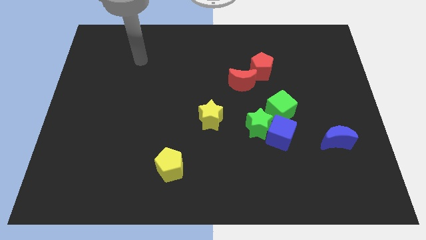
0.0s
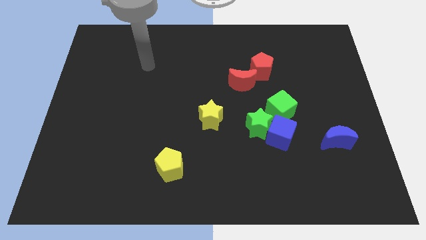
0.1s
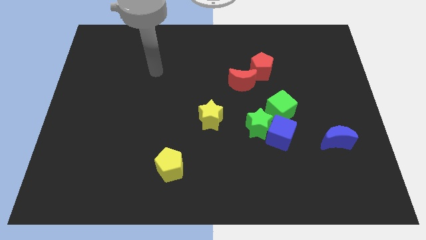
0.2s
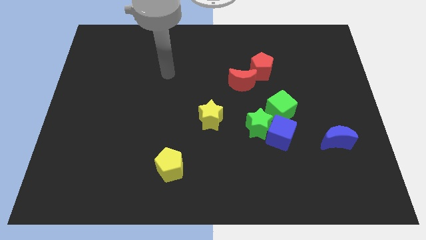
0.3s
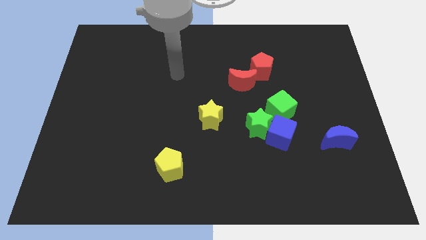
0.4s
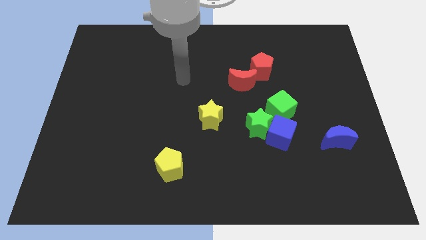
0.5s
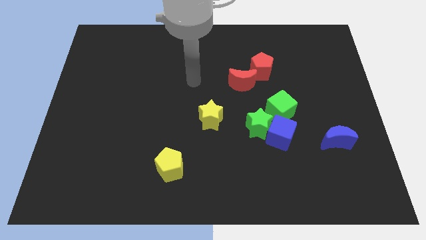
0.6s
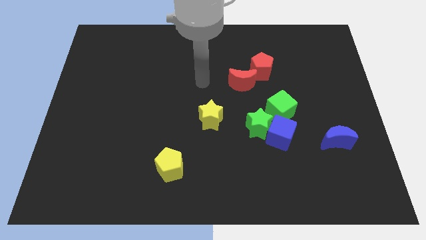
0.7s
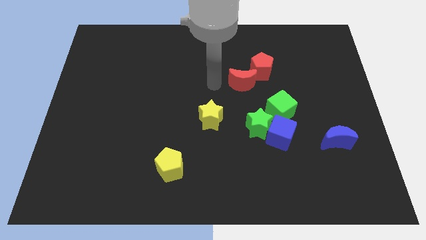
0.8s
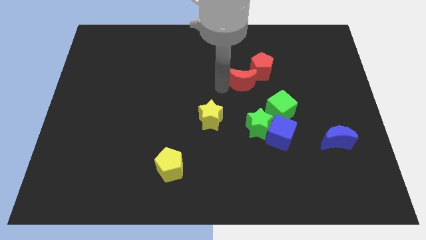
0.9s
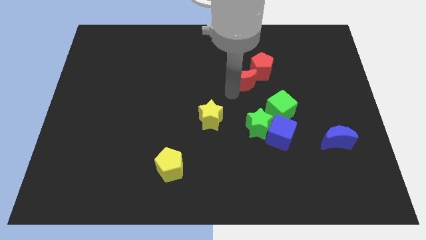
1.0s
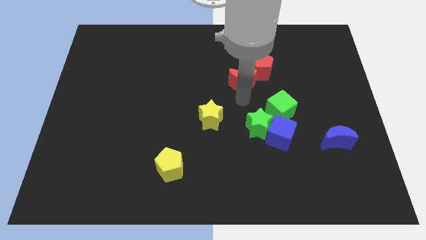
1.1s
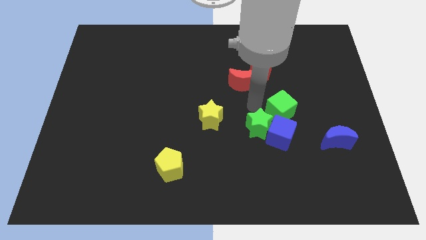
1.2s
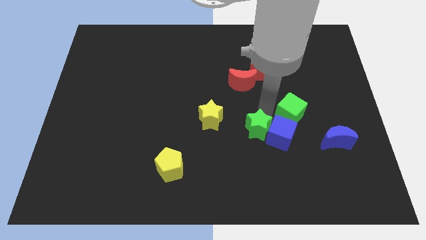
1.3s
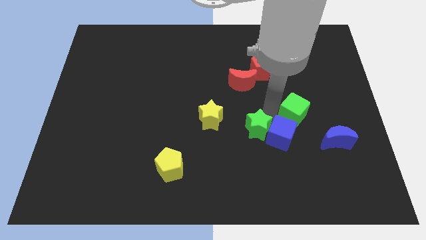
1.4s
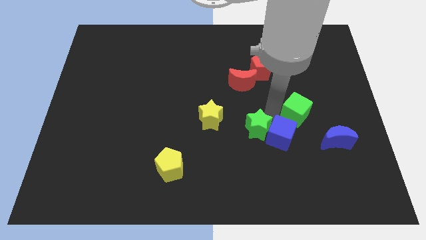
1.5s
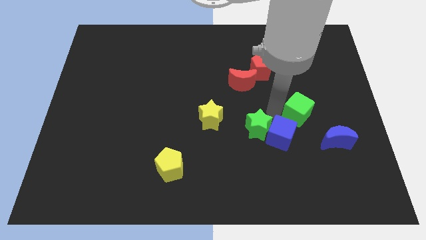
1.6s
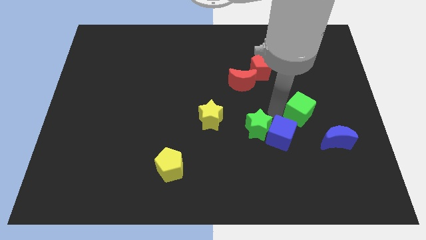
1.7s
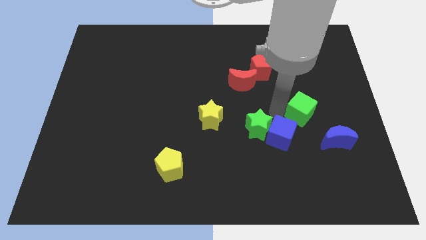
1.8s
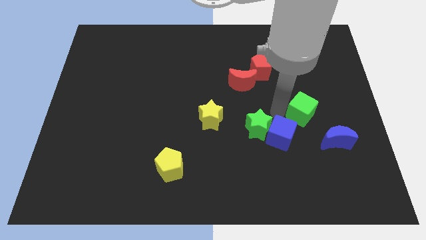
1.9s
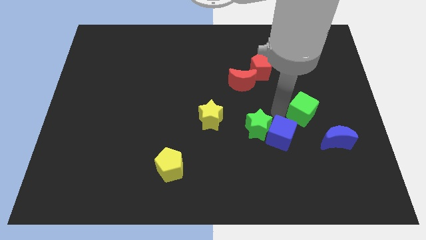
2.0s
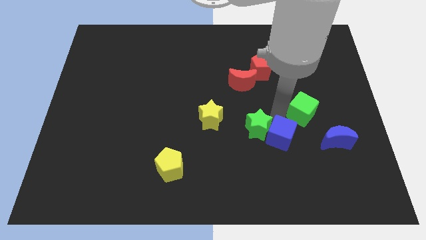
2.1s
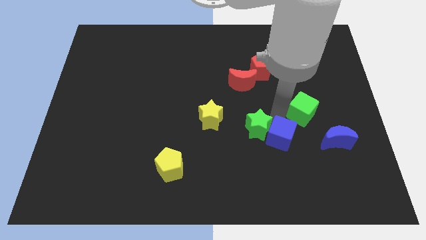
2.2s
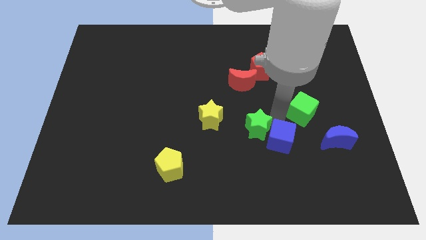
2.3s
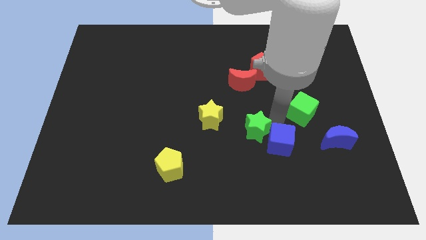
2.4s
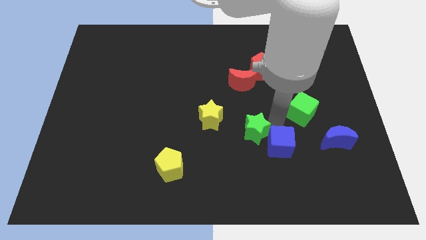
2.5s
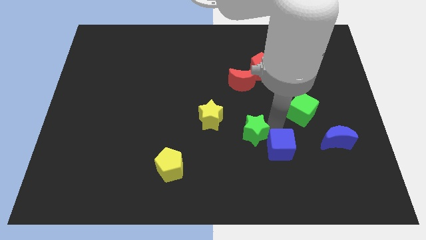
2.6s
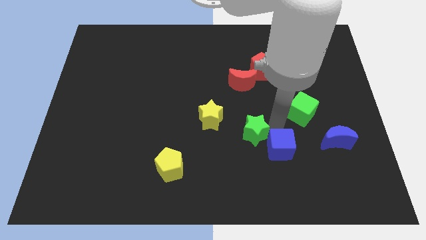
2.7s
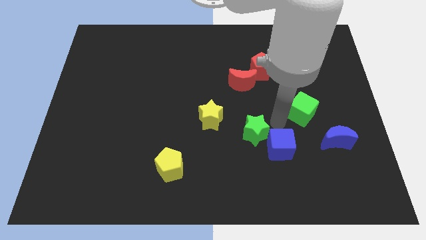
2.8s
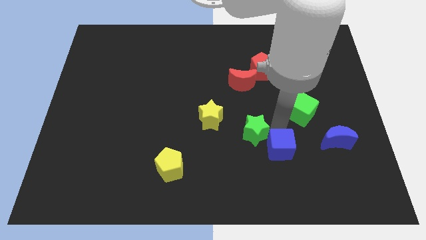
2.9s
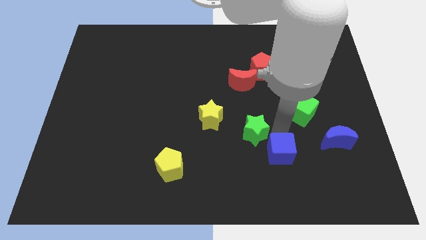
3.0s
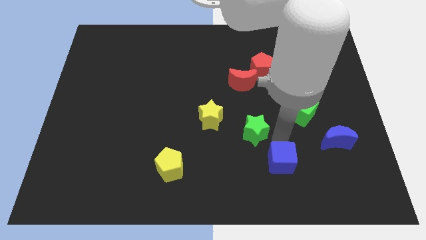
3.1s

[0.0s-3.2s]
pull the blue cube apart from the green star and green cube

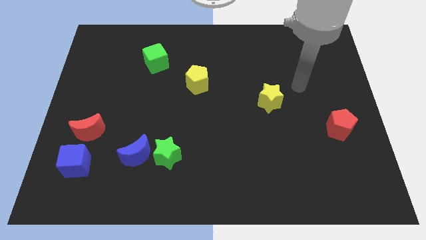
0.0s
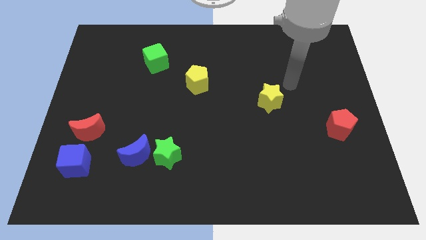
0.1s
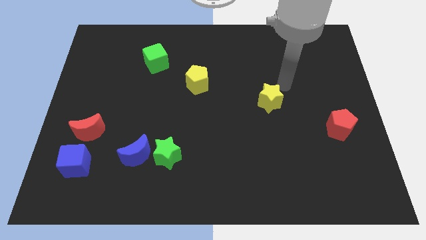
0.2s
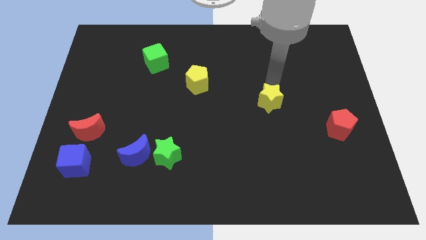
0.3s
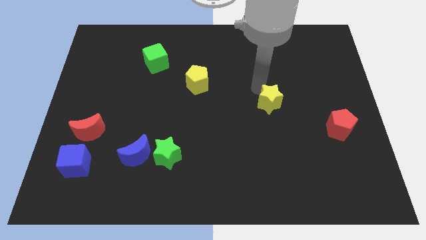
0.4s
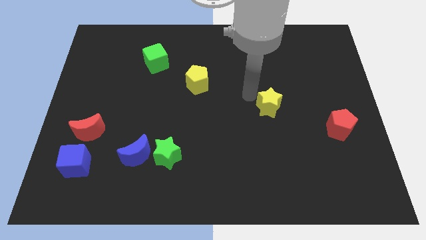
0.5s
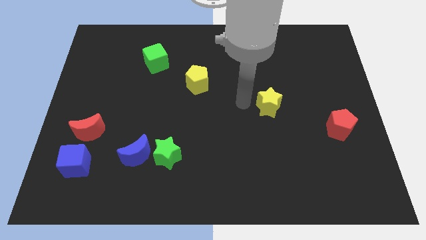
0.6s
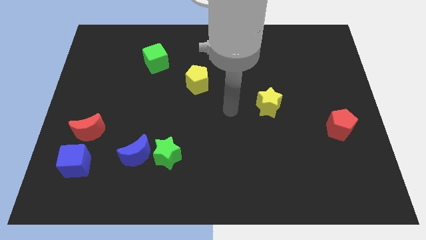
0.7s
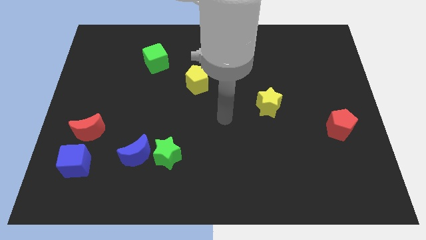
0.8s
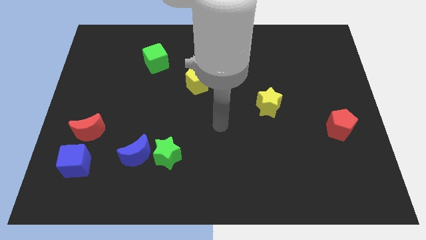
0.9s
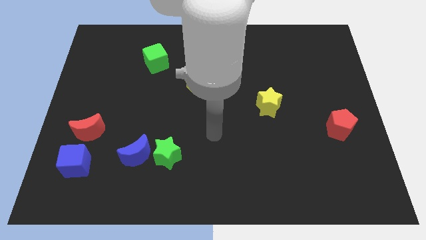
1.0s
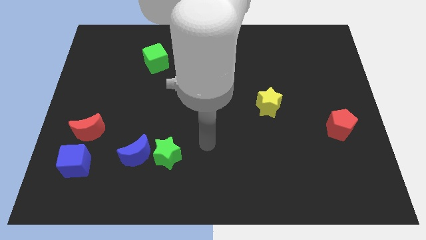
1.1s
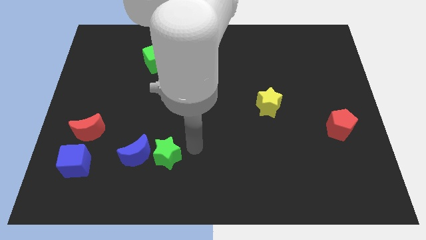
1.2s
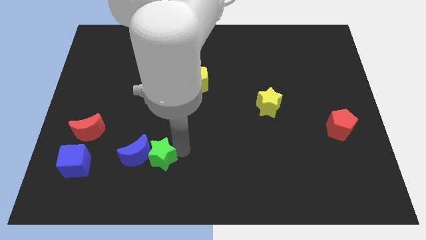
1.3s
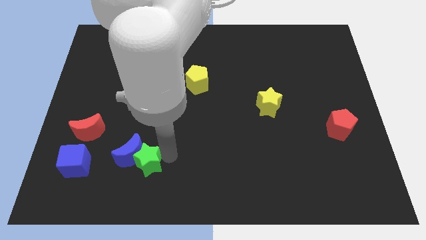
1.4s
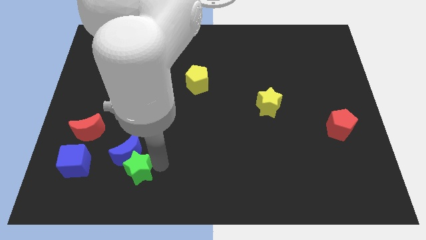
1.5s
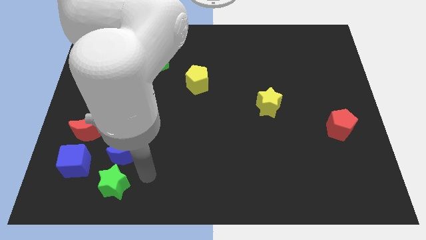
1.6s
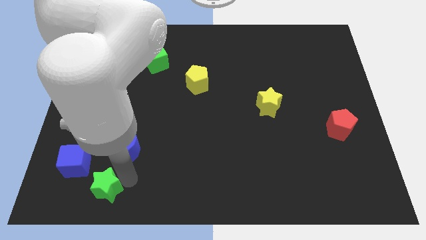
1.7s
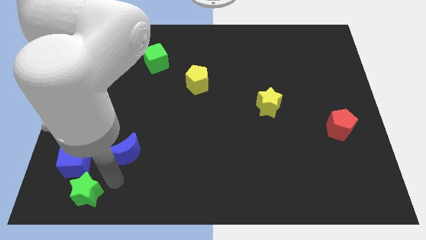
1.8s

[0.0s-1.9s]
move the blue moon away from the green star

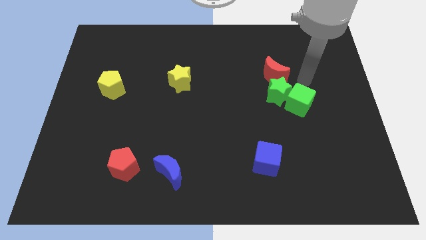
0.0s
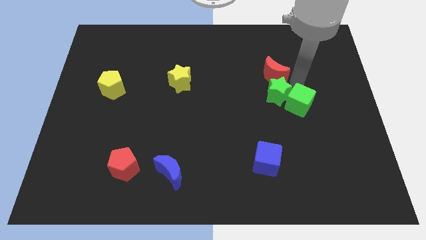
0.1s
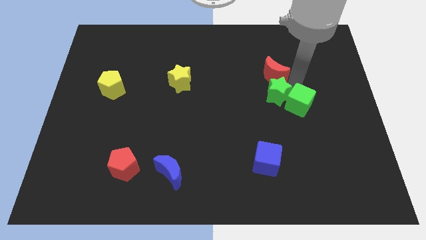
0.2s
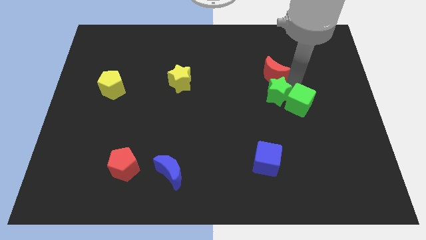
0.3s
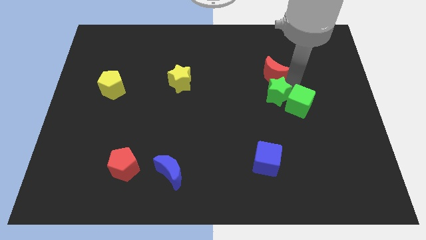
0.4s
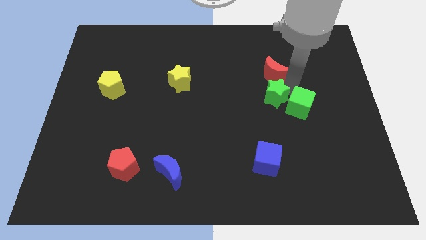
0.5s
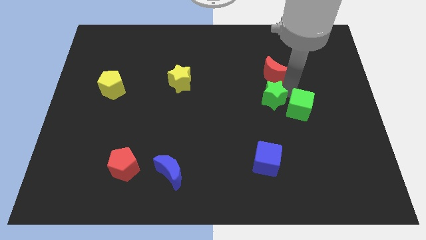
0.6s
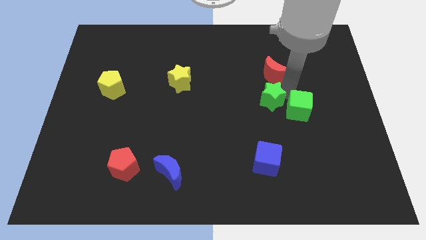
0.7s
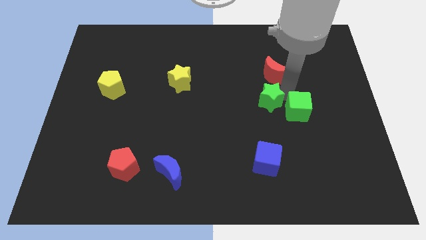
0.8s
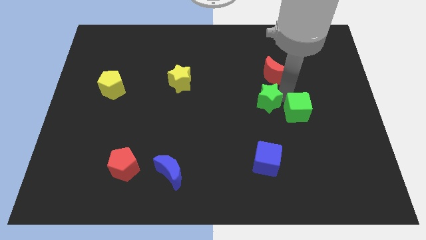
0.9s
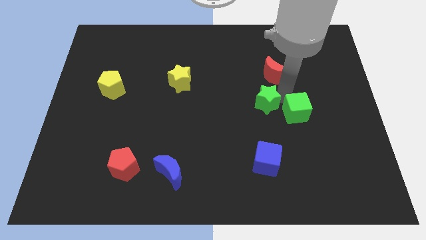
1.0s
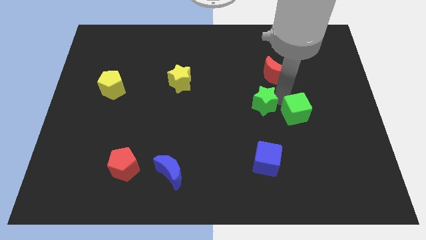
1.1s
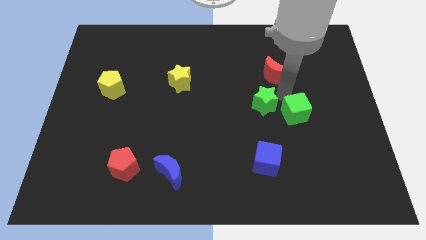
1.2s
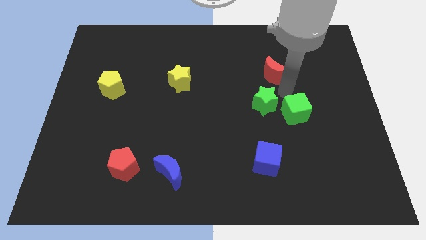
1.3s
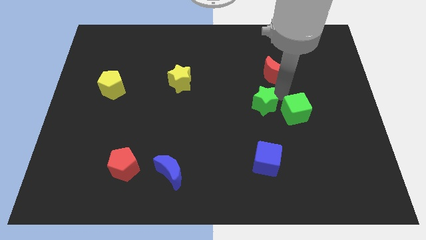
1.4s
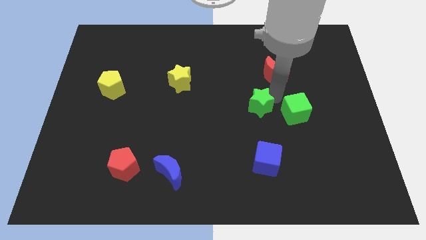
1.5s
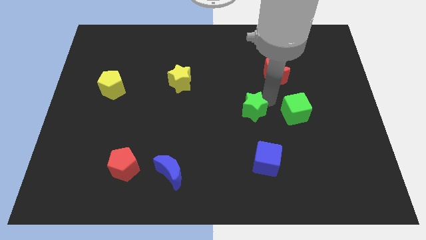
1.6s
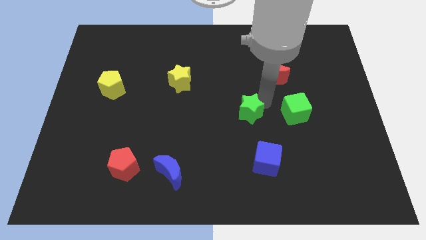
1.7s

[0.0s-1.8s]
separate the green star from the green cube and red moon

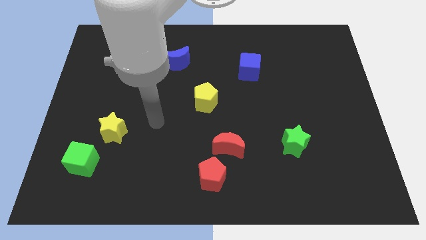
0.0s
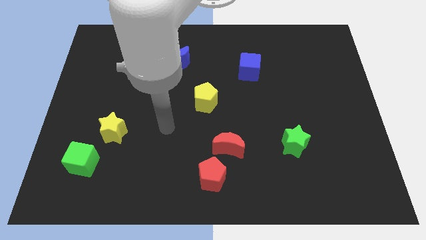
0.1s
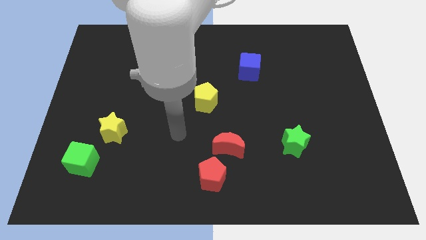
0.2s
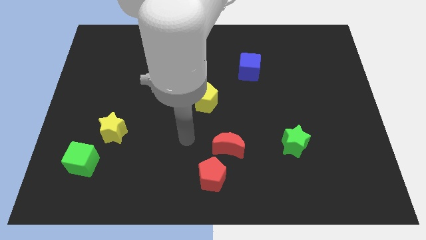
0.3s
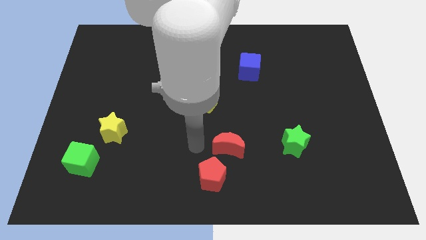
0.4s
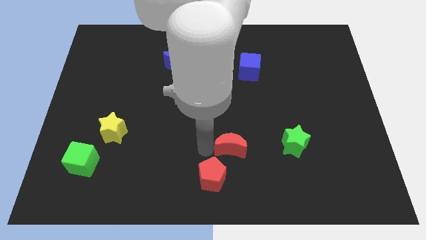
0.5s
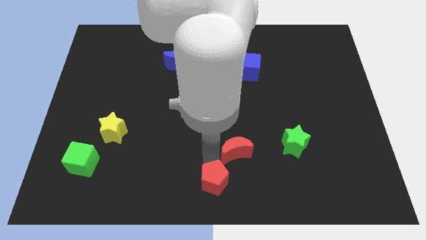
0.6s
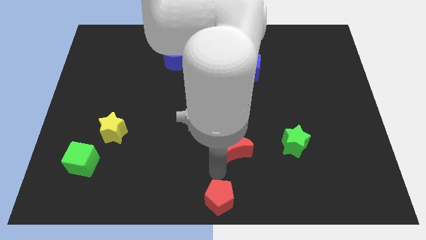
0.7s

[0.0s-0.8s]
separate the red moon from the red pentagon

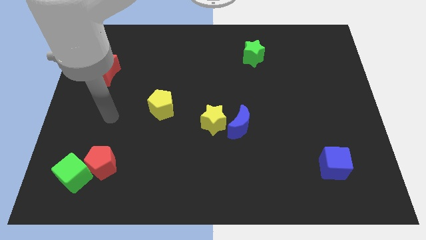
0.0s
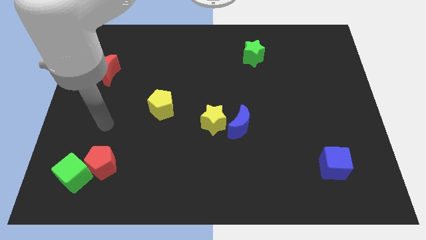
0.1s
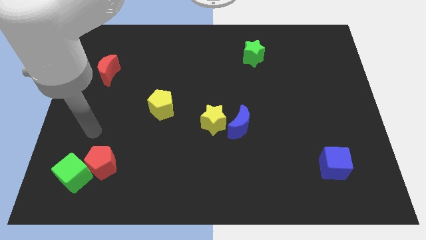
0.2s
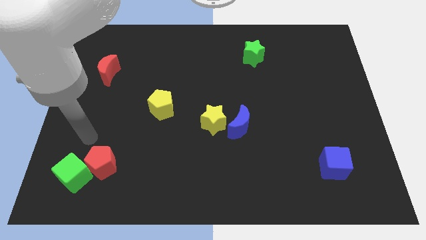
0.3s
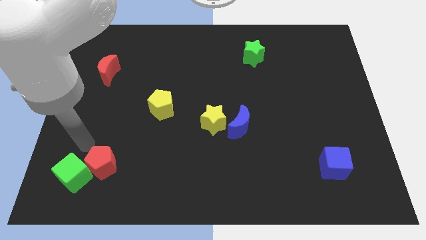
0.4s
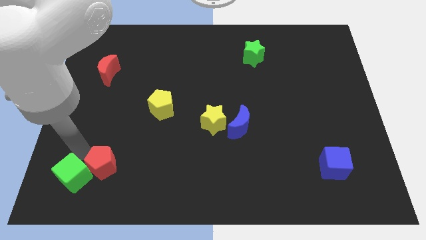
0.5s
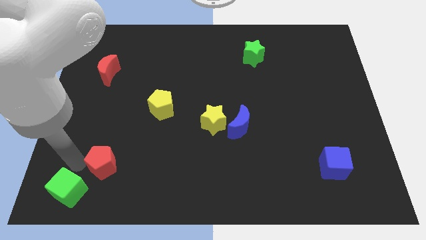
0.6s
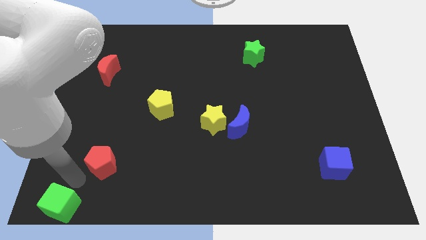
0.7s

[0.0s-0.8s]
pull the red pentagon apart from the green cube

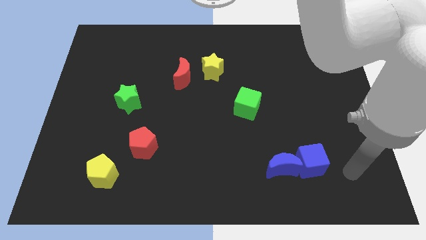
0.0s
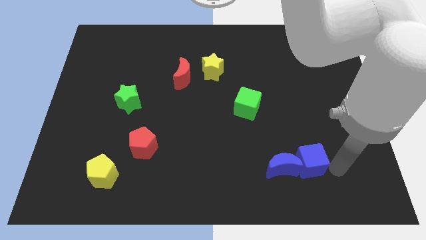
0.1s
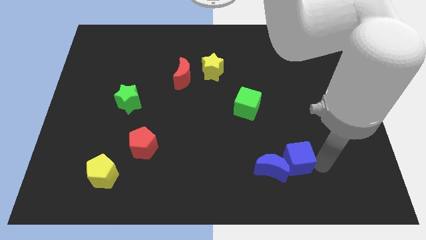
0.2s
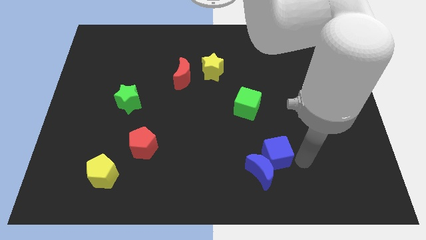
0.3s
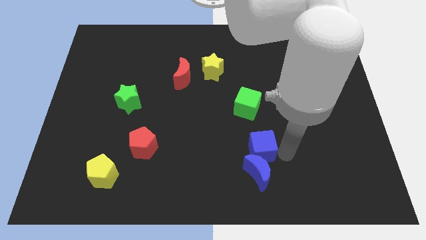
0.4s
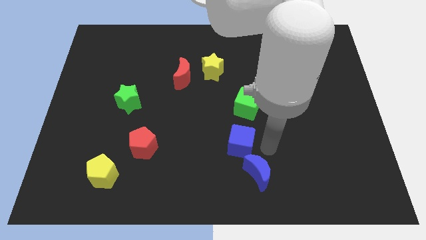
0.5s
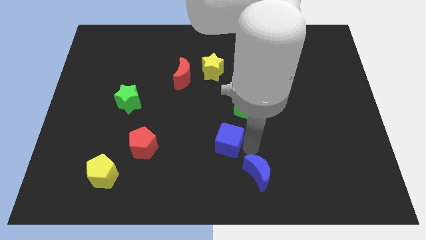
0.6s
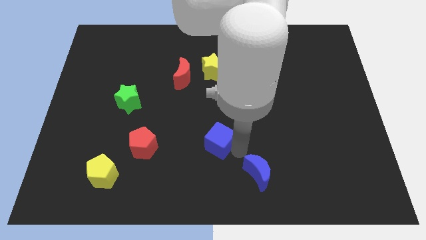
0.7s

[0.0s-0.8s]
separate the blue moon from the blue cube

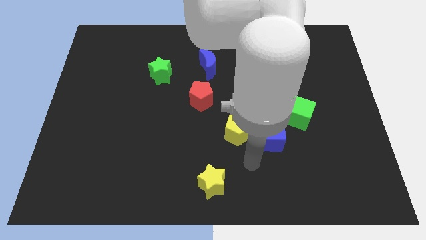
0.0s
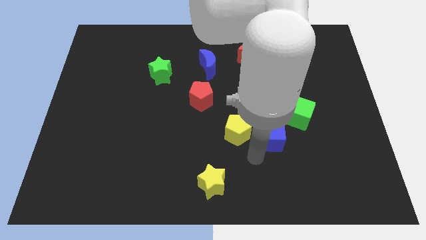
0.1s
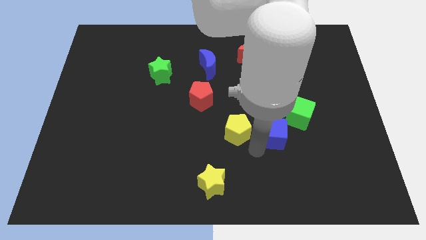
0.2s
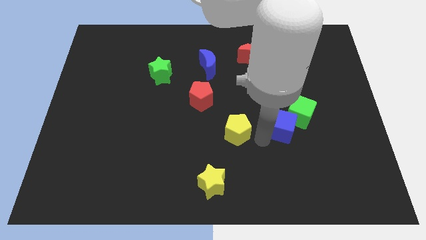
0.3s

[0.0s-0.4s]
pull the yellow pentagon apart from the blue cube
